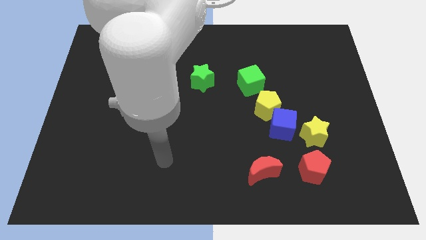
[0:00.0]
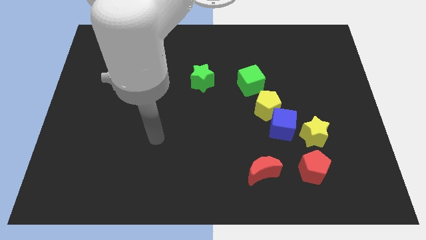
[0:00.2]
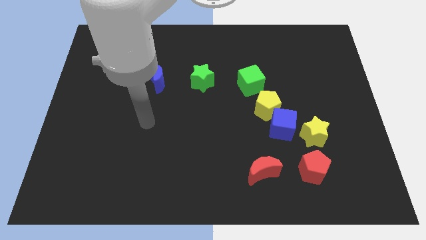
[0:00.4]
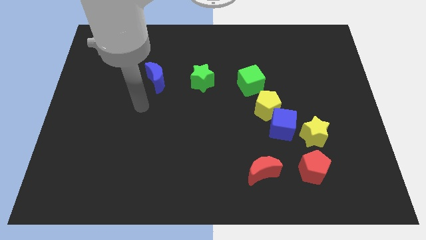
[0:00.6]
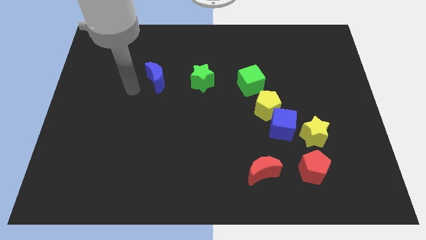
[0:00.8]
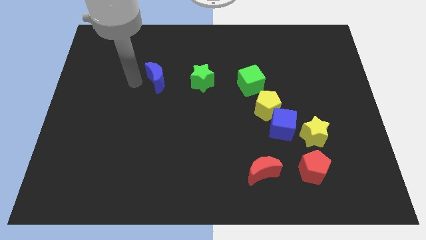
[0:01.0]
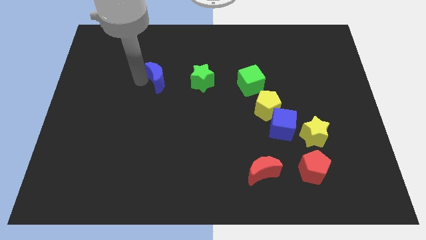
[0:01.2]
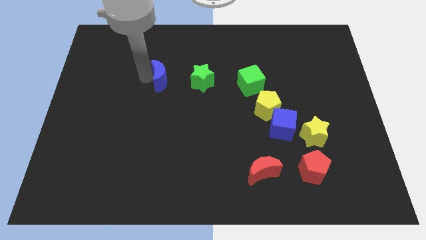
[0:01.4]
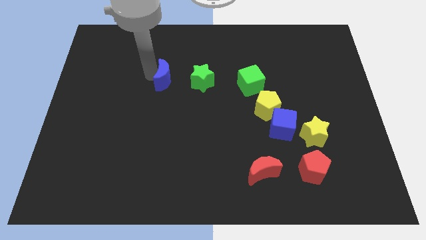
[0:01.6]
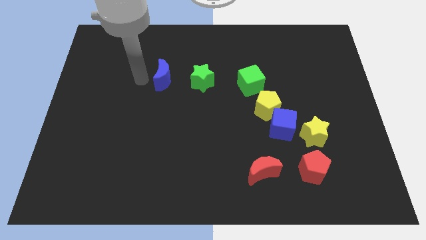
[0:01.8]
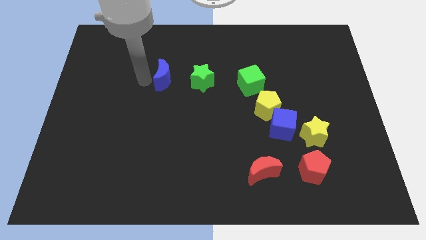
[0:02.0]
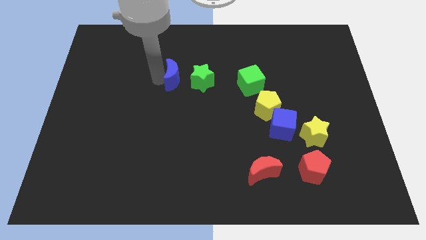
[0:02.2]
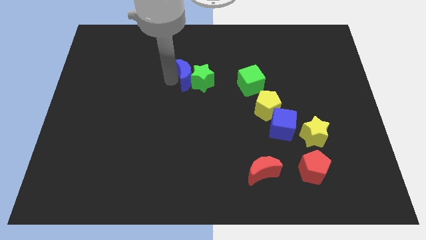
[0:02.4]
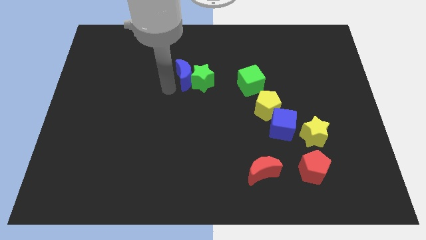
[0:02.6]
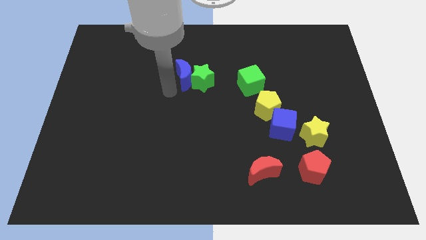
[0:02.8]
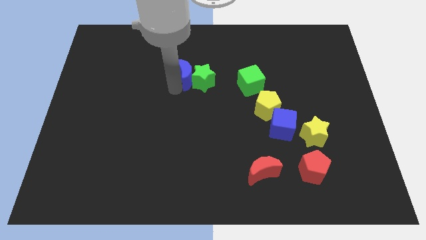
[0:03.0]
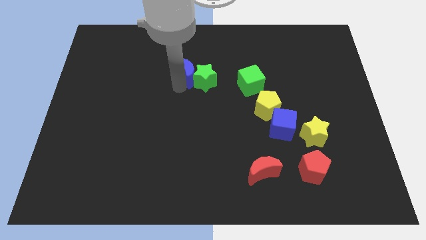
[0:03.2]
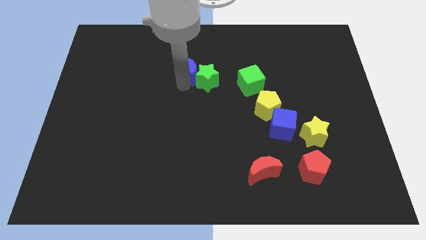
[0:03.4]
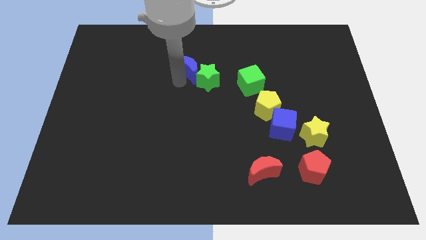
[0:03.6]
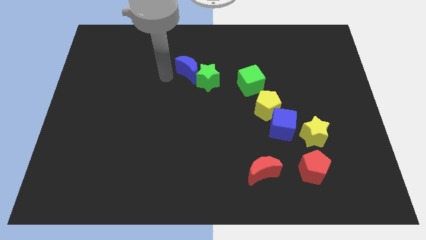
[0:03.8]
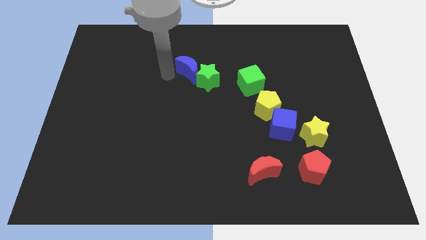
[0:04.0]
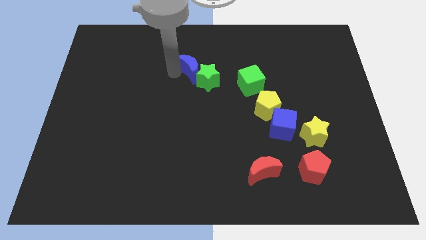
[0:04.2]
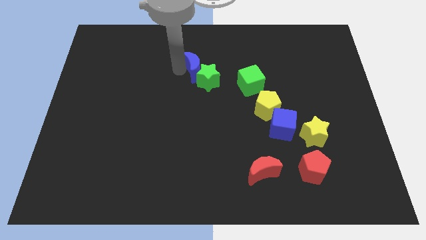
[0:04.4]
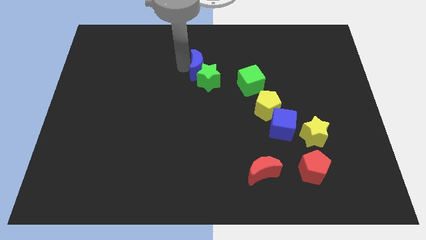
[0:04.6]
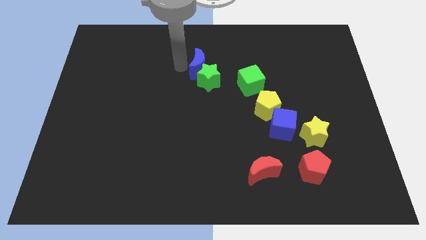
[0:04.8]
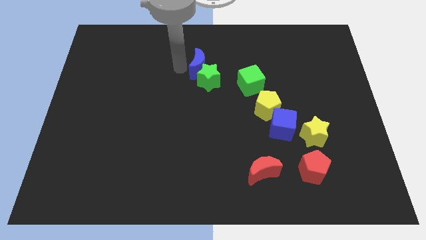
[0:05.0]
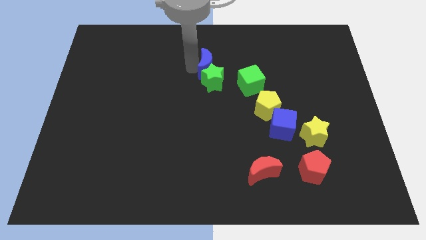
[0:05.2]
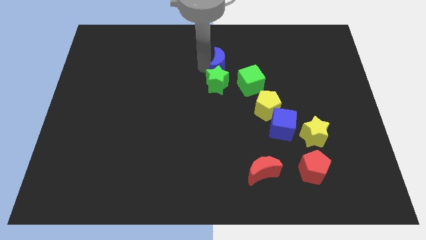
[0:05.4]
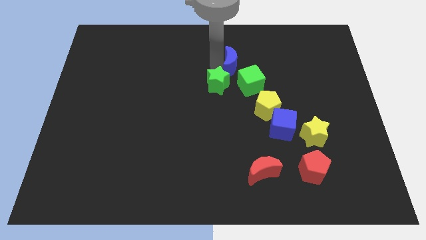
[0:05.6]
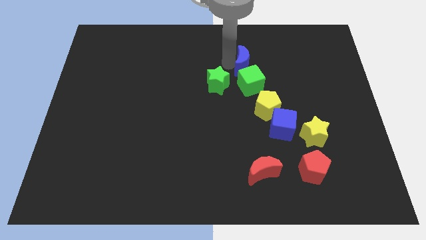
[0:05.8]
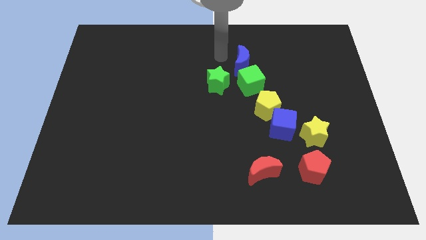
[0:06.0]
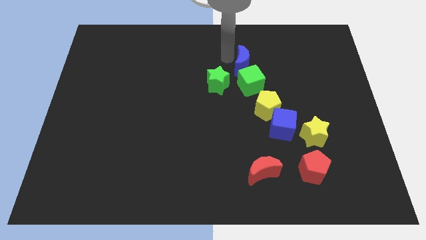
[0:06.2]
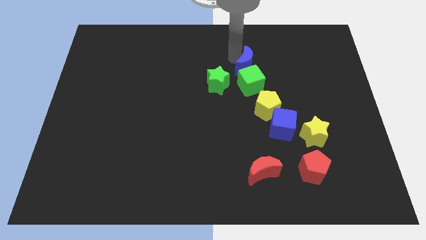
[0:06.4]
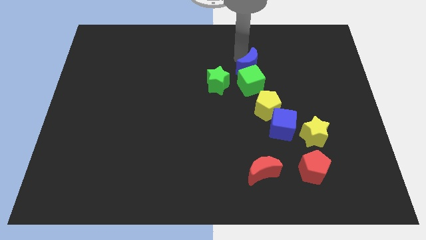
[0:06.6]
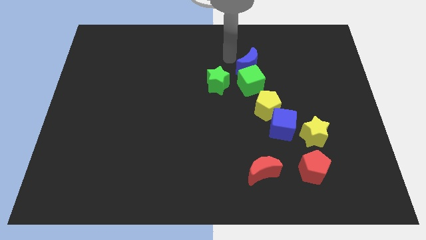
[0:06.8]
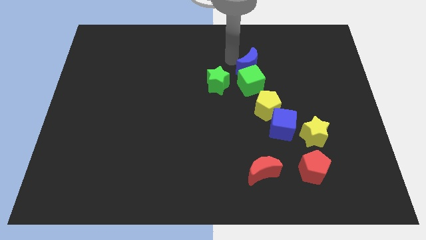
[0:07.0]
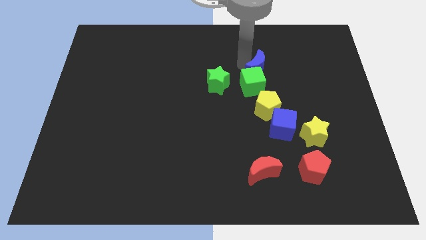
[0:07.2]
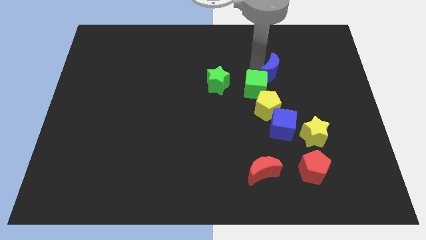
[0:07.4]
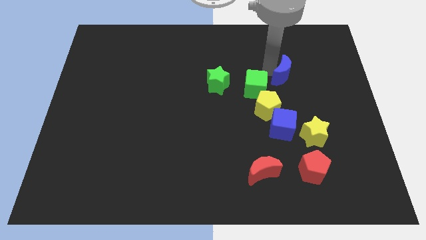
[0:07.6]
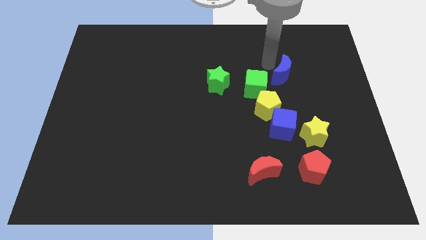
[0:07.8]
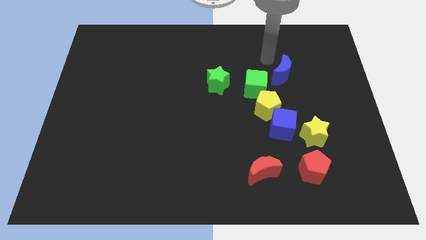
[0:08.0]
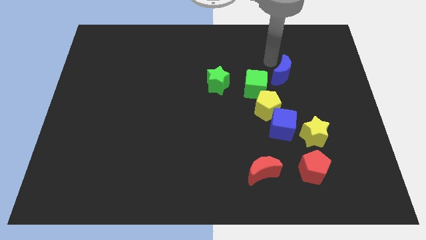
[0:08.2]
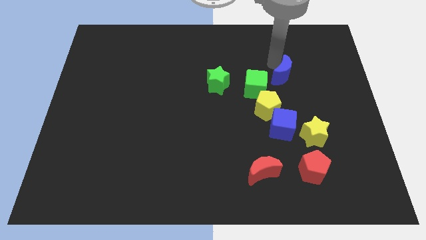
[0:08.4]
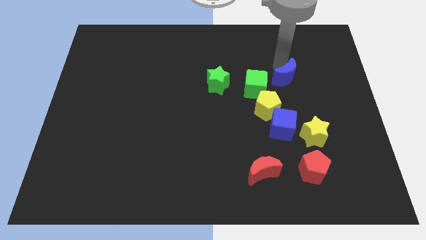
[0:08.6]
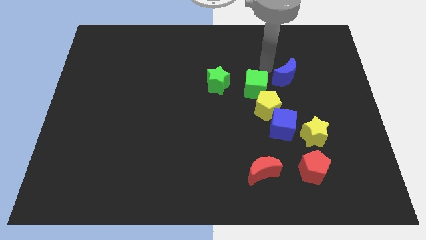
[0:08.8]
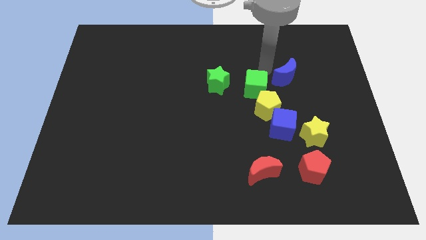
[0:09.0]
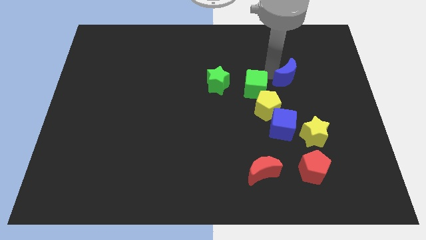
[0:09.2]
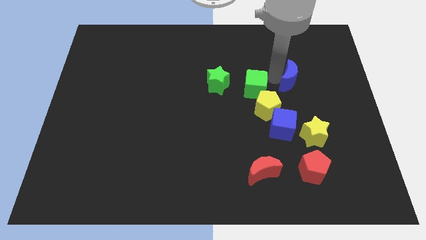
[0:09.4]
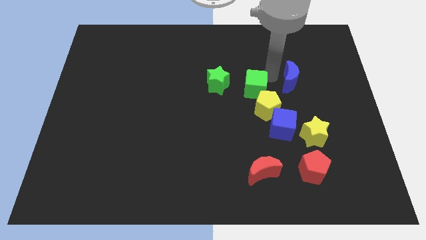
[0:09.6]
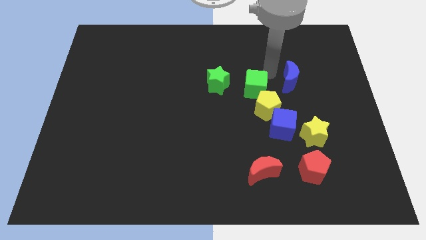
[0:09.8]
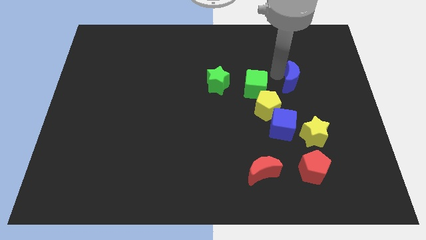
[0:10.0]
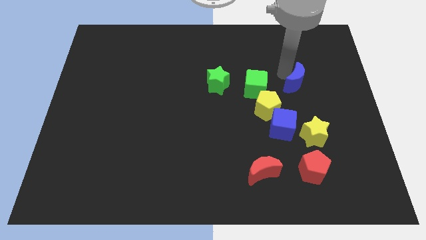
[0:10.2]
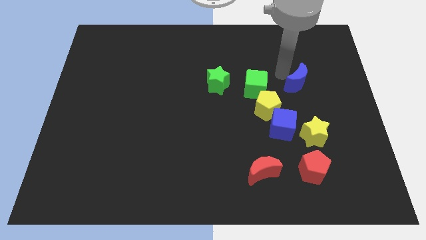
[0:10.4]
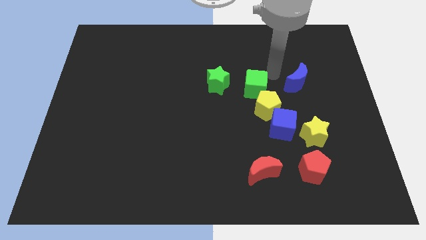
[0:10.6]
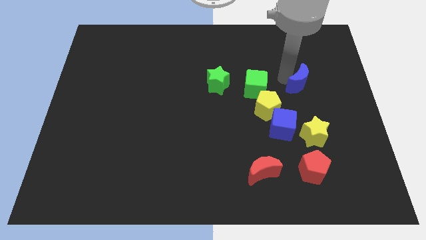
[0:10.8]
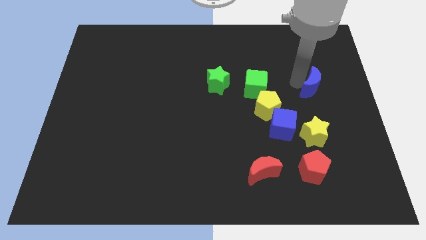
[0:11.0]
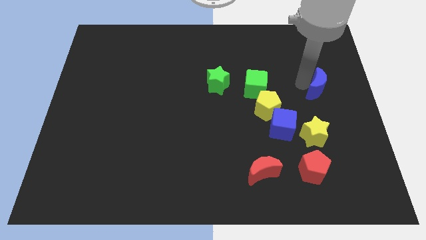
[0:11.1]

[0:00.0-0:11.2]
slide the blue moon to the right side of the board

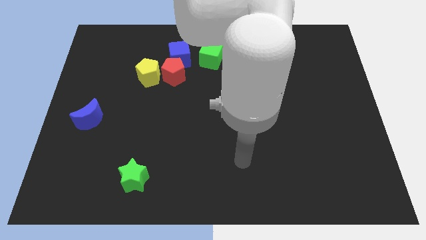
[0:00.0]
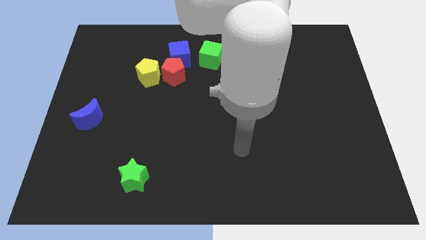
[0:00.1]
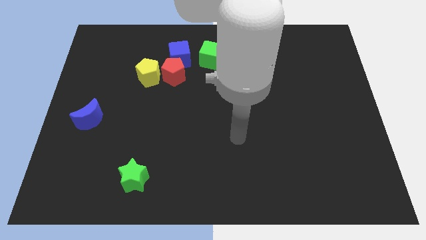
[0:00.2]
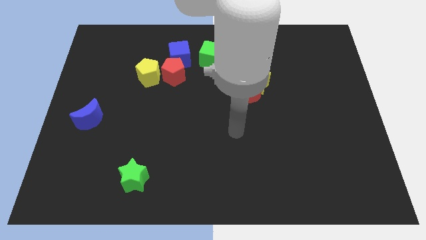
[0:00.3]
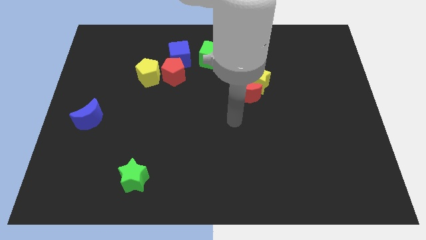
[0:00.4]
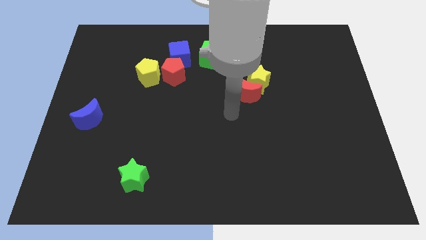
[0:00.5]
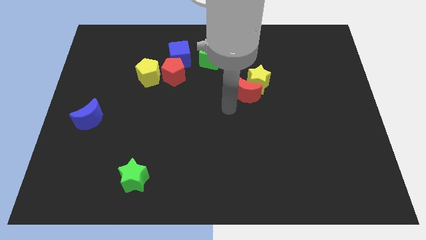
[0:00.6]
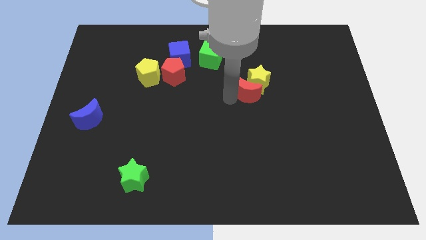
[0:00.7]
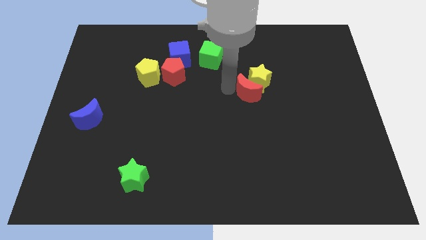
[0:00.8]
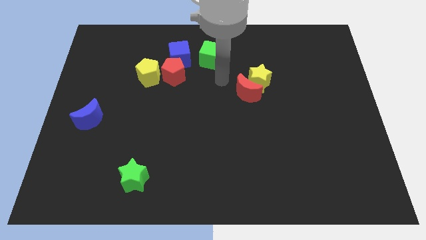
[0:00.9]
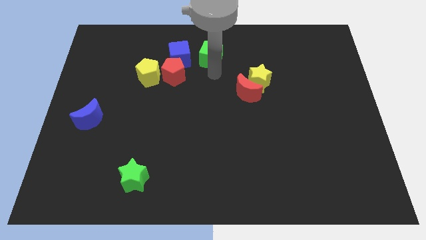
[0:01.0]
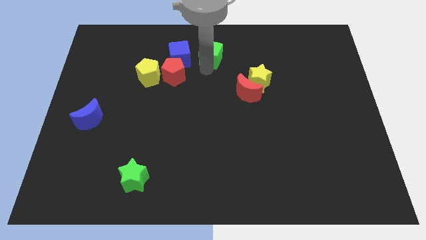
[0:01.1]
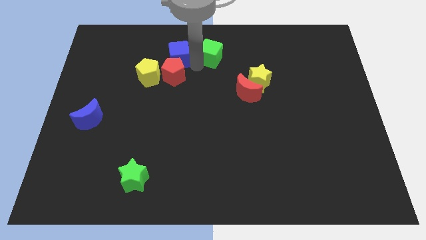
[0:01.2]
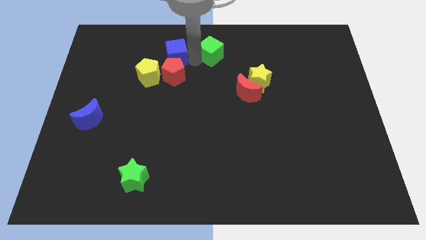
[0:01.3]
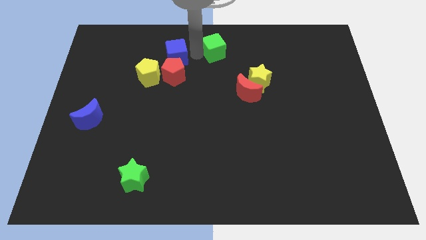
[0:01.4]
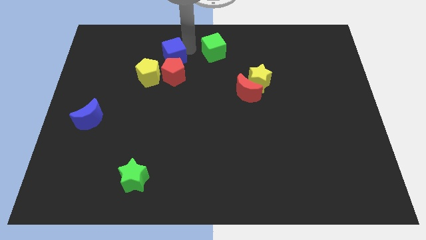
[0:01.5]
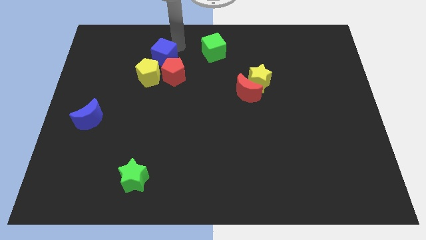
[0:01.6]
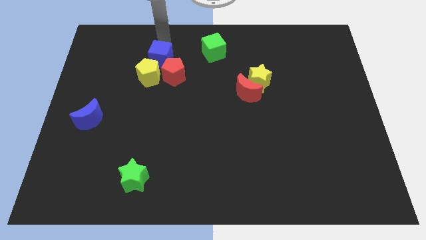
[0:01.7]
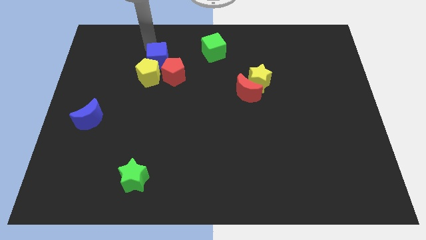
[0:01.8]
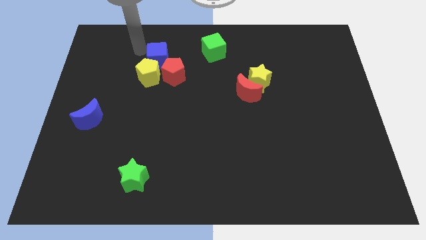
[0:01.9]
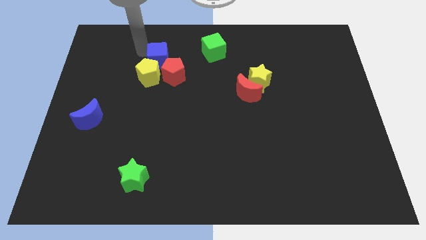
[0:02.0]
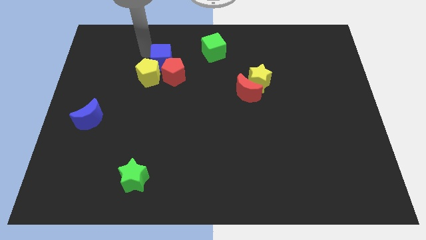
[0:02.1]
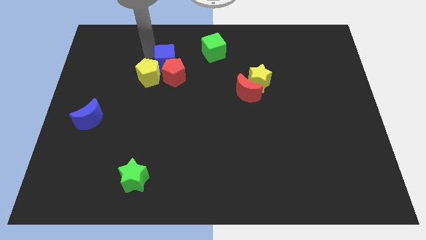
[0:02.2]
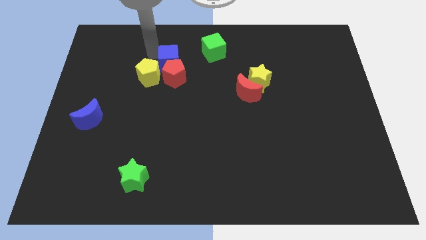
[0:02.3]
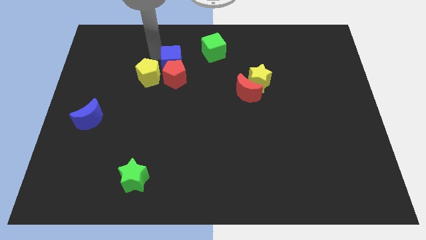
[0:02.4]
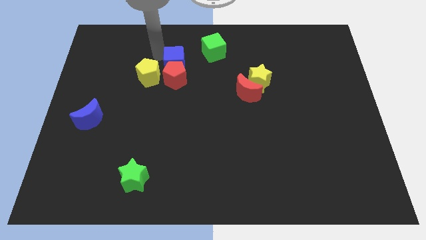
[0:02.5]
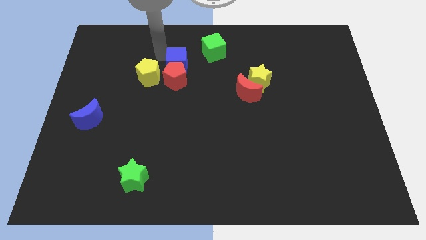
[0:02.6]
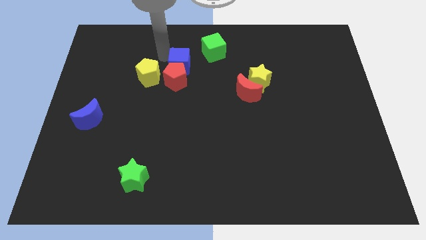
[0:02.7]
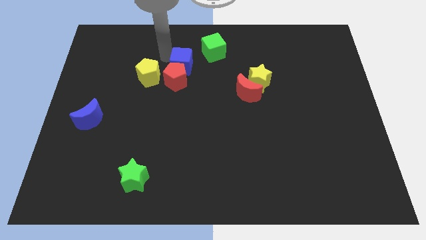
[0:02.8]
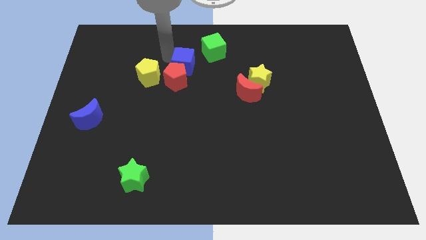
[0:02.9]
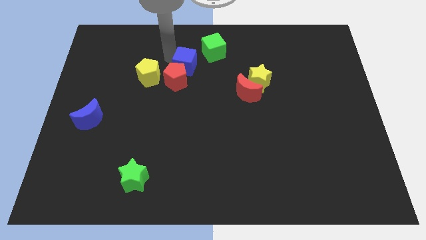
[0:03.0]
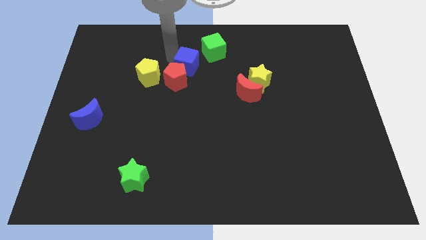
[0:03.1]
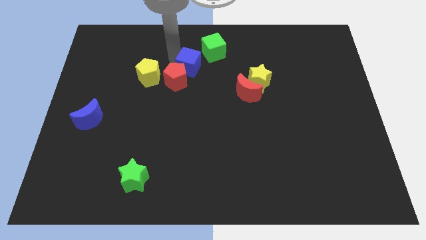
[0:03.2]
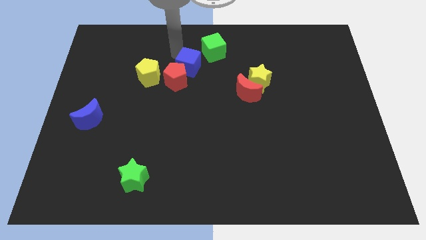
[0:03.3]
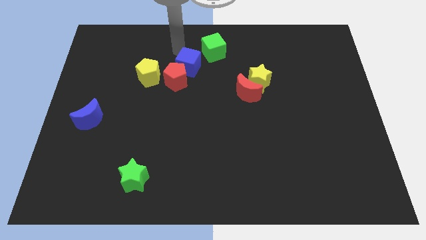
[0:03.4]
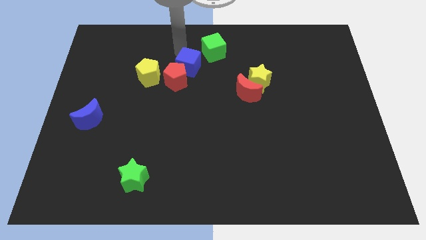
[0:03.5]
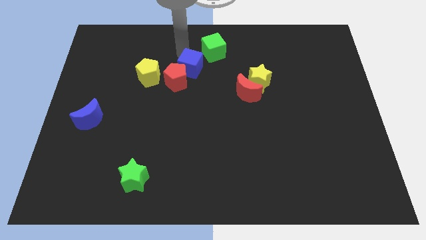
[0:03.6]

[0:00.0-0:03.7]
slide the blue cube to the middle of the board
